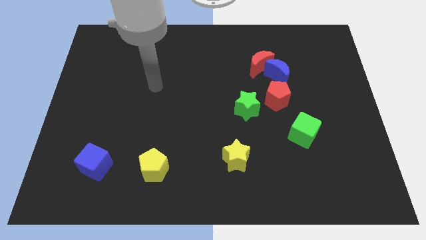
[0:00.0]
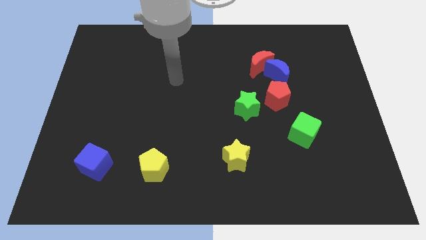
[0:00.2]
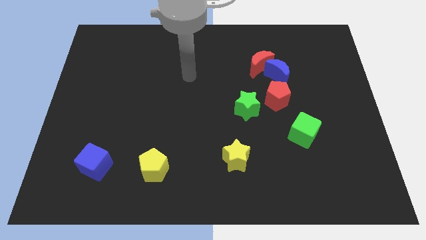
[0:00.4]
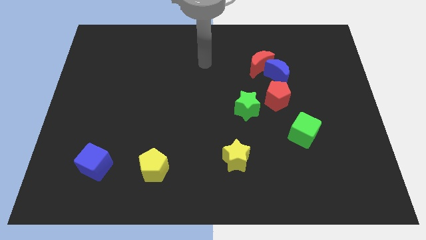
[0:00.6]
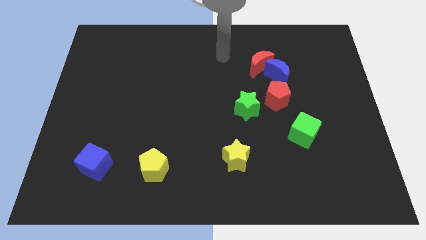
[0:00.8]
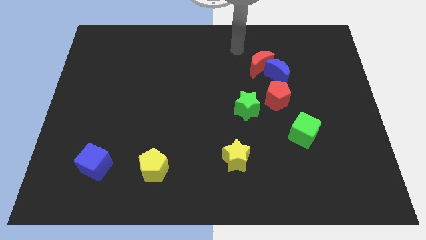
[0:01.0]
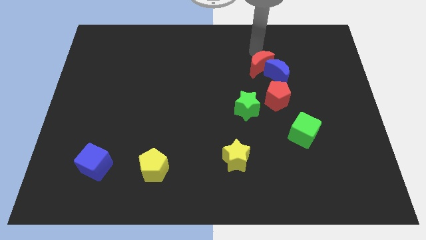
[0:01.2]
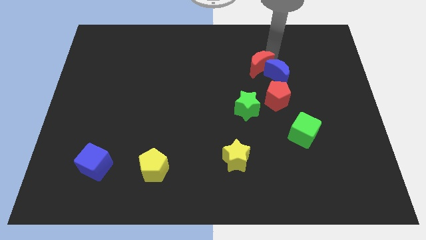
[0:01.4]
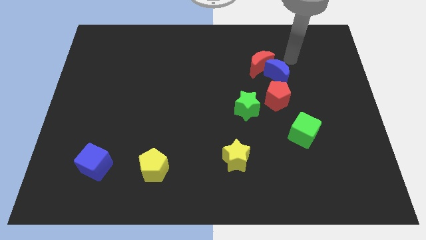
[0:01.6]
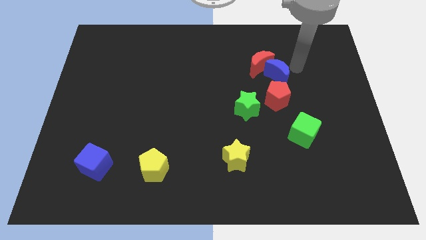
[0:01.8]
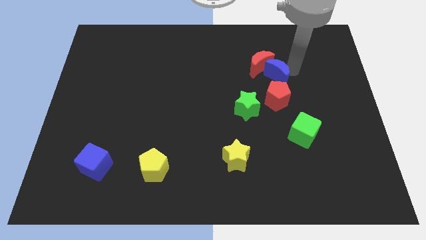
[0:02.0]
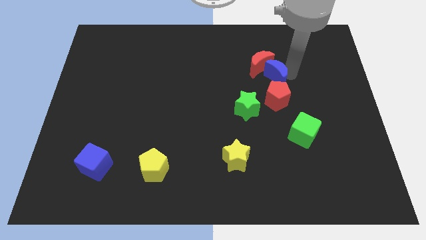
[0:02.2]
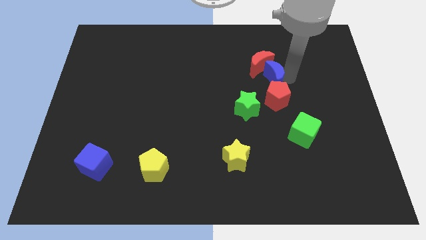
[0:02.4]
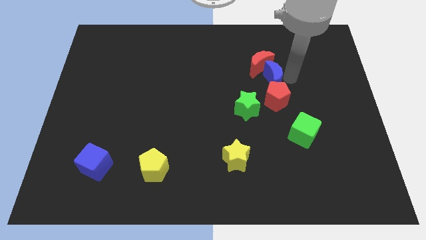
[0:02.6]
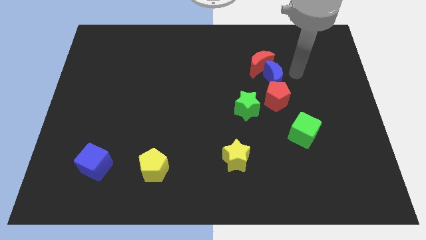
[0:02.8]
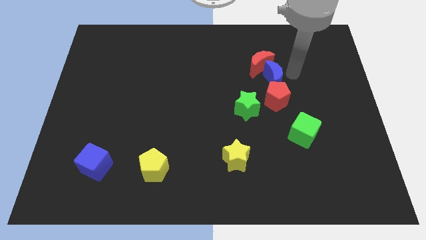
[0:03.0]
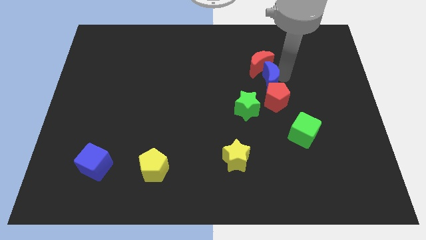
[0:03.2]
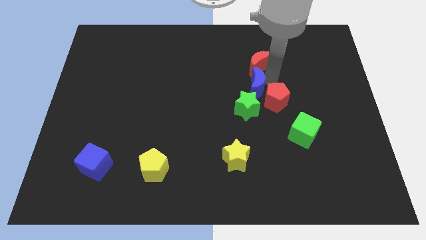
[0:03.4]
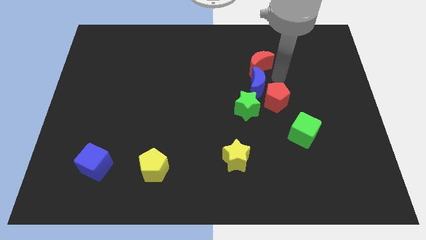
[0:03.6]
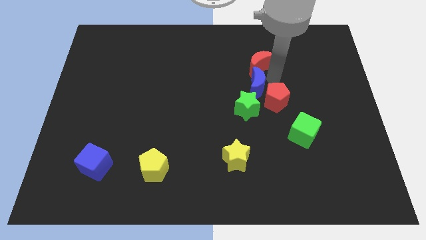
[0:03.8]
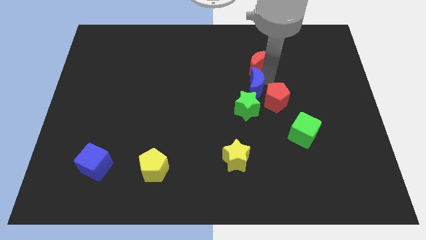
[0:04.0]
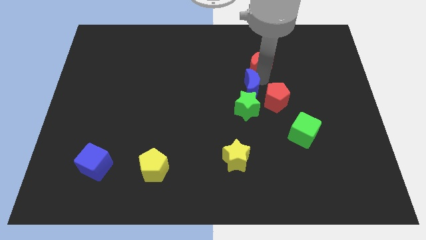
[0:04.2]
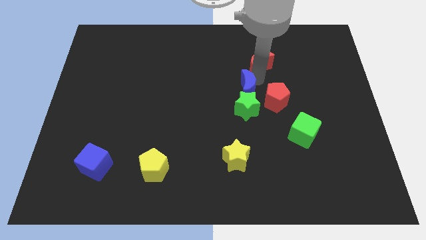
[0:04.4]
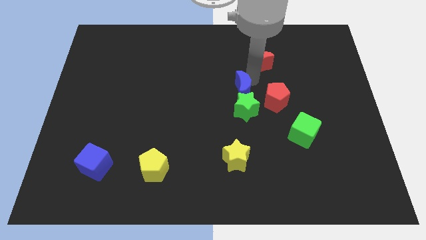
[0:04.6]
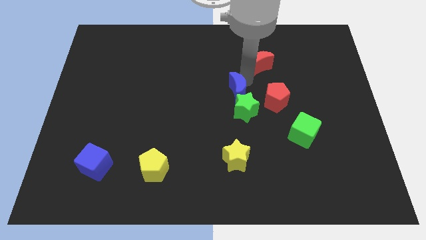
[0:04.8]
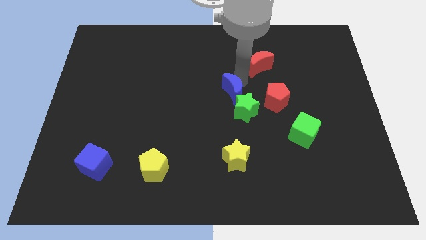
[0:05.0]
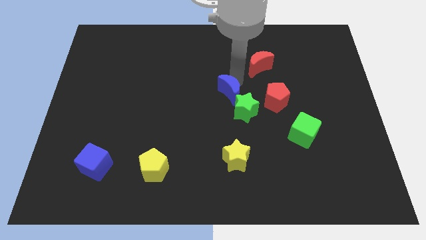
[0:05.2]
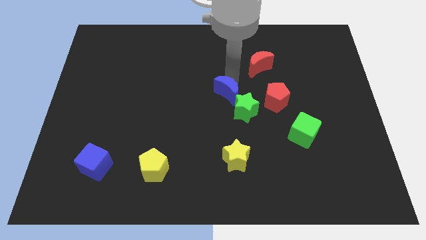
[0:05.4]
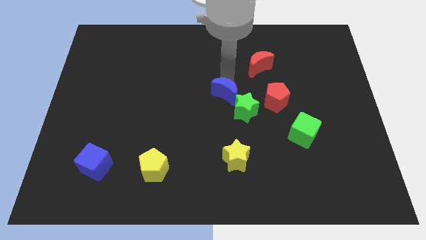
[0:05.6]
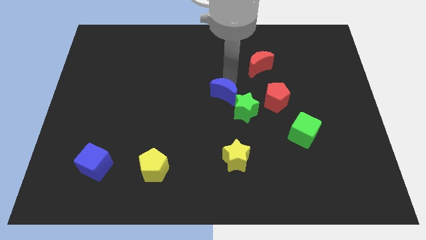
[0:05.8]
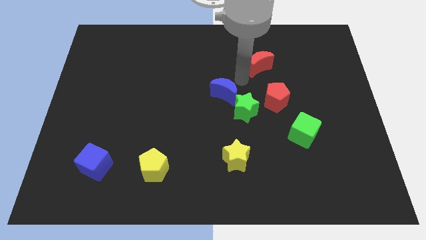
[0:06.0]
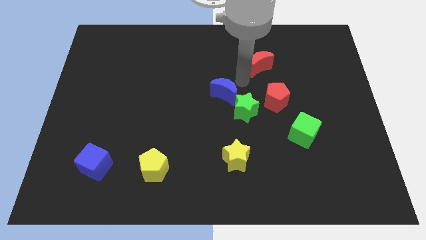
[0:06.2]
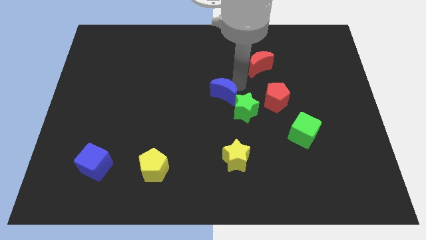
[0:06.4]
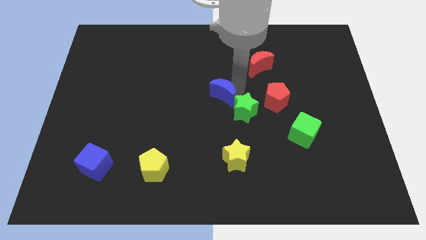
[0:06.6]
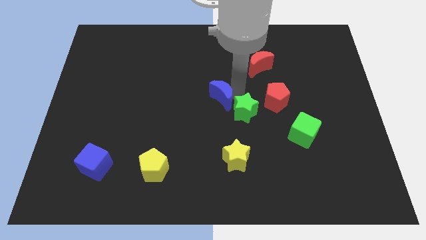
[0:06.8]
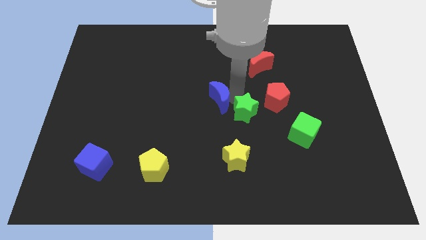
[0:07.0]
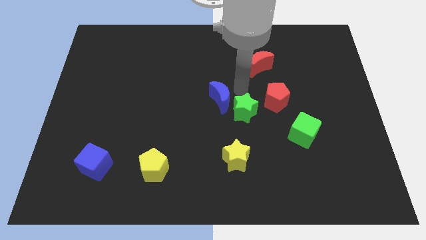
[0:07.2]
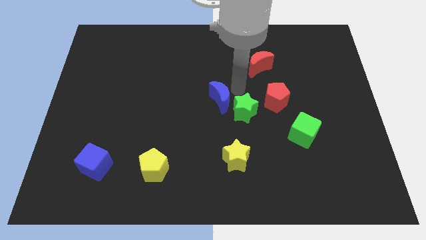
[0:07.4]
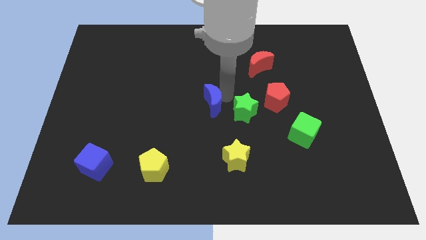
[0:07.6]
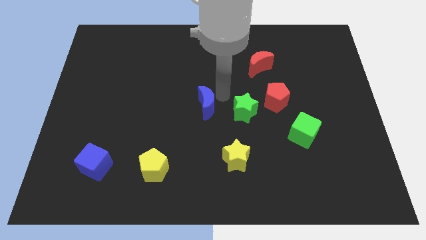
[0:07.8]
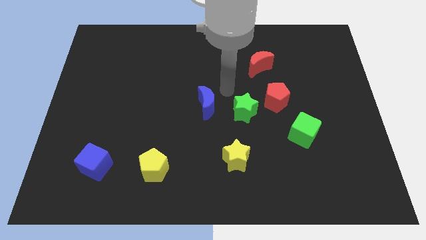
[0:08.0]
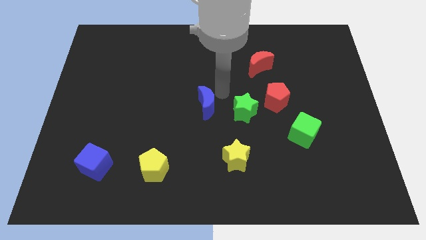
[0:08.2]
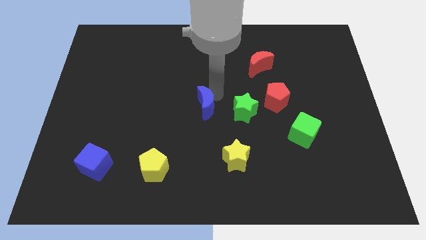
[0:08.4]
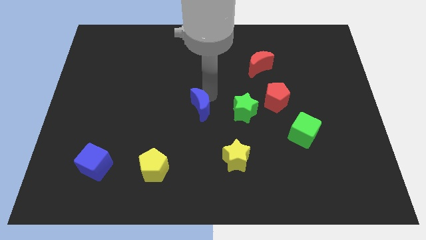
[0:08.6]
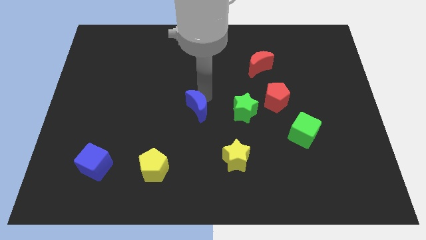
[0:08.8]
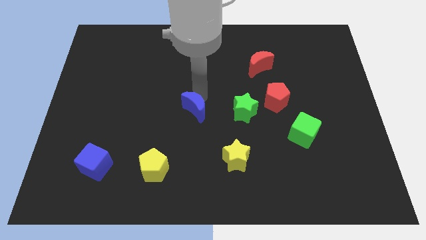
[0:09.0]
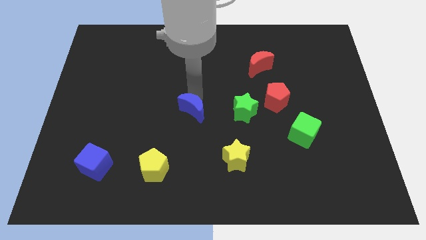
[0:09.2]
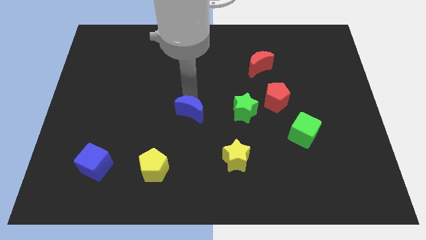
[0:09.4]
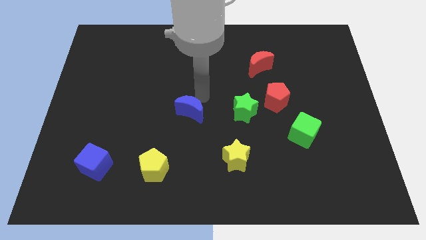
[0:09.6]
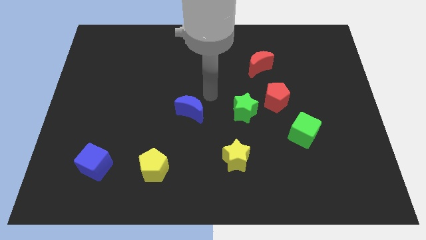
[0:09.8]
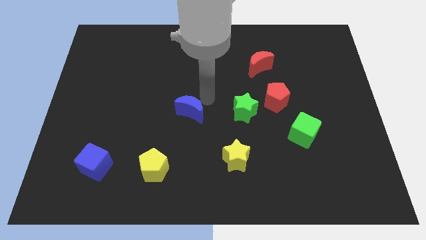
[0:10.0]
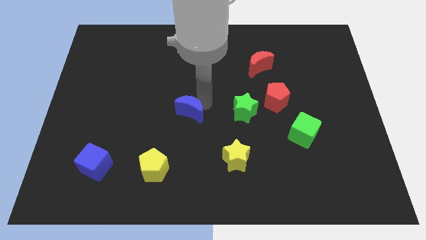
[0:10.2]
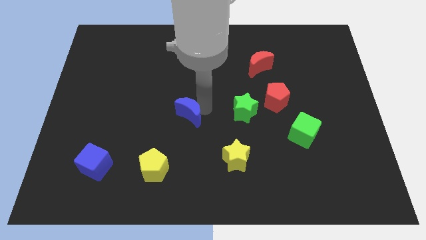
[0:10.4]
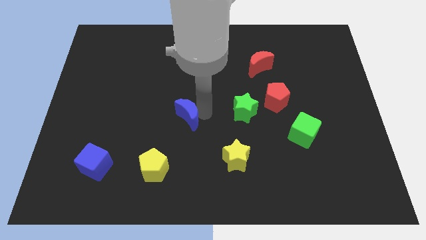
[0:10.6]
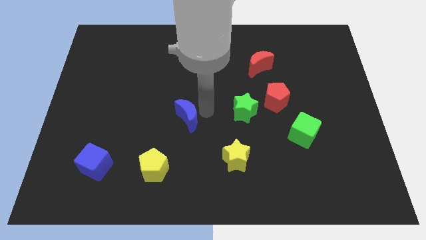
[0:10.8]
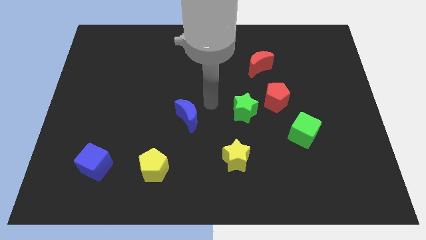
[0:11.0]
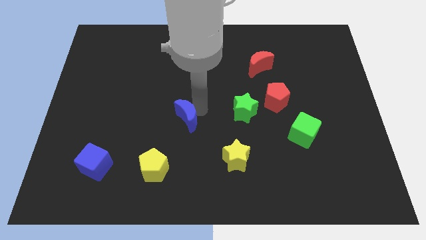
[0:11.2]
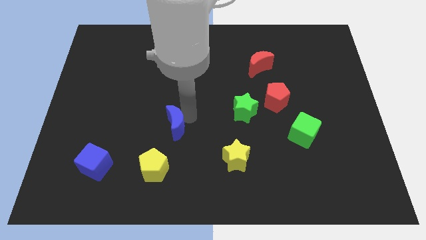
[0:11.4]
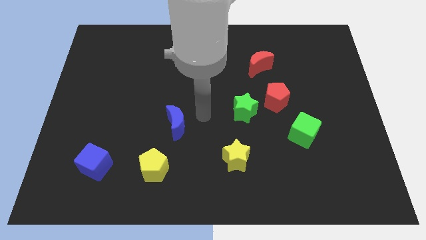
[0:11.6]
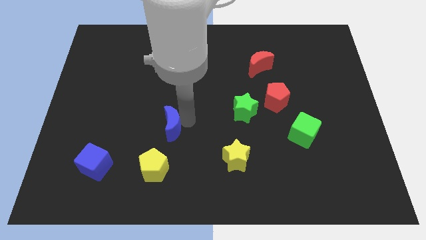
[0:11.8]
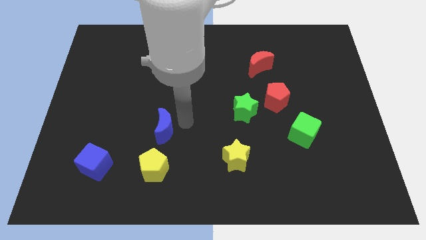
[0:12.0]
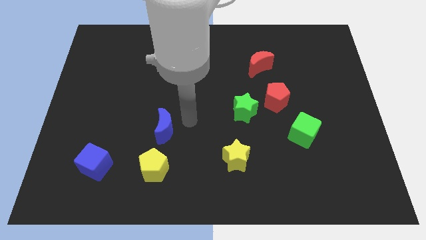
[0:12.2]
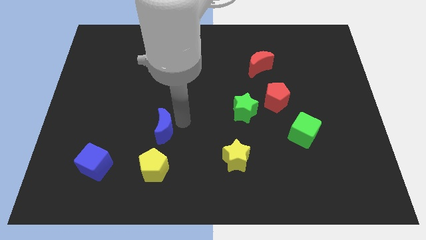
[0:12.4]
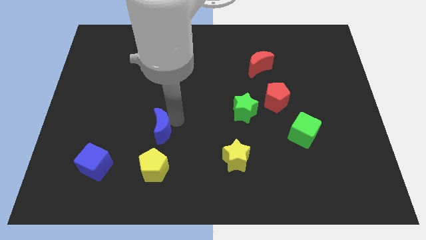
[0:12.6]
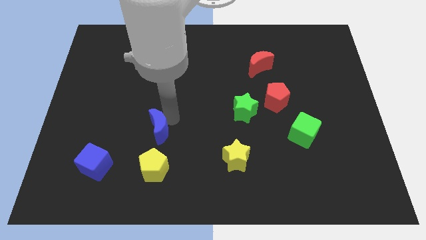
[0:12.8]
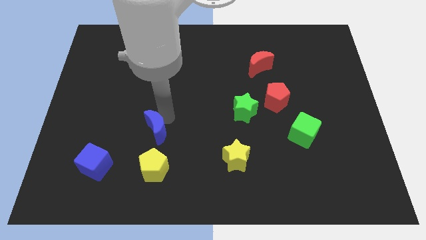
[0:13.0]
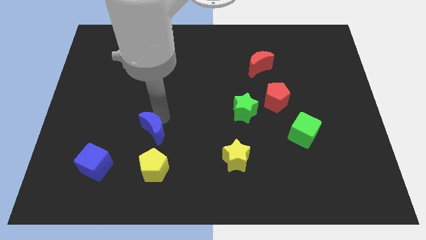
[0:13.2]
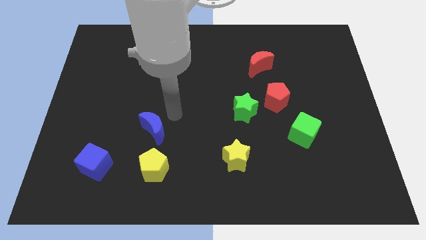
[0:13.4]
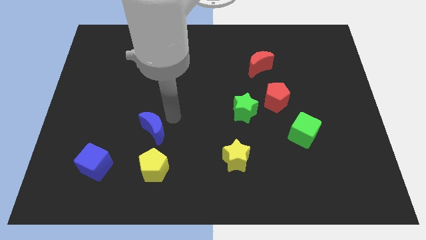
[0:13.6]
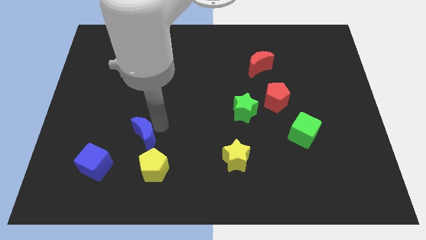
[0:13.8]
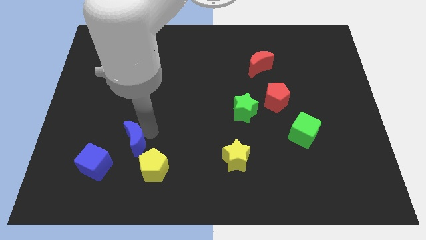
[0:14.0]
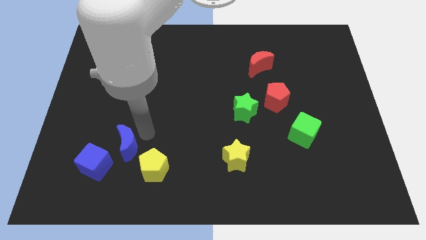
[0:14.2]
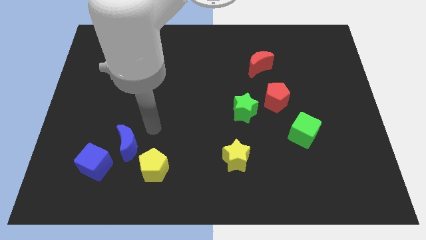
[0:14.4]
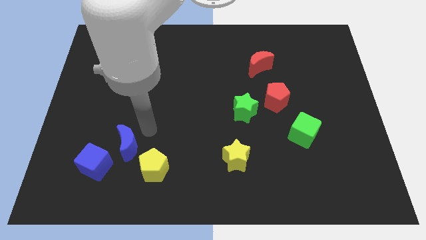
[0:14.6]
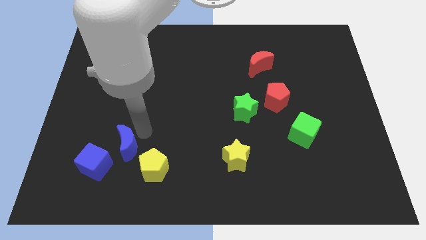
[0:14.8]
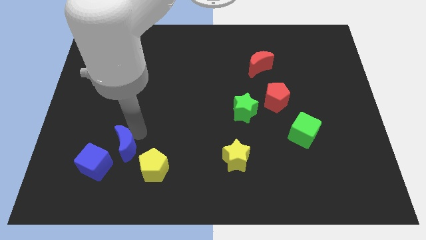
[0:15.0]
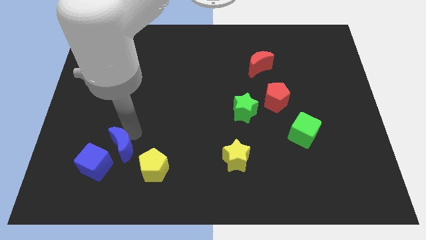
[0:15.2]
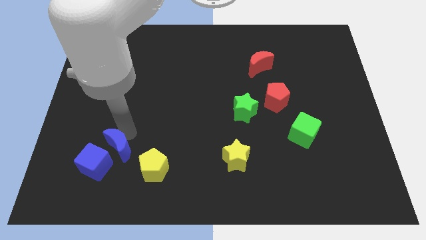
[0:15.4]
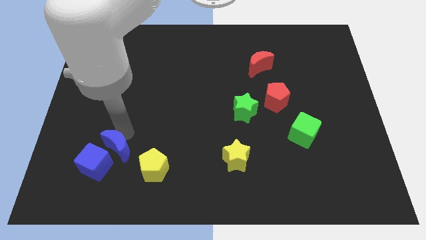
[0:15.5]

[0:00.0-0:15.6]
put the blue moon towards the blue cube
